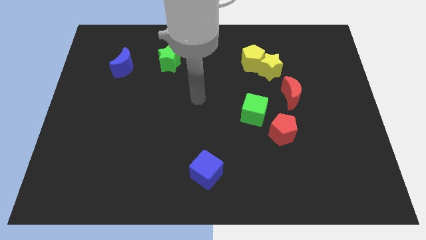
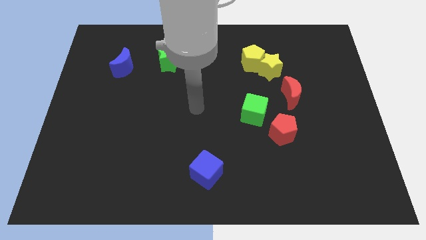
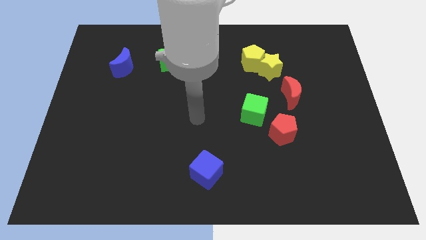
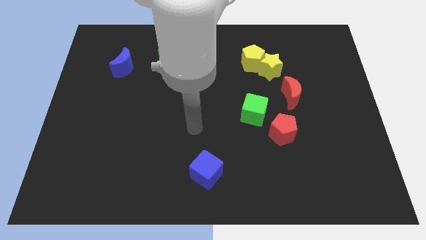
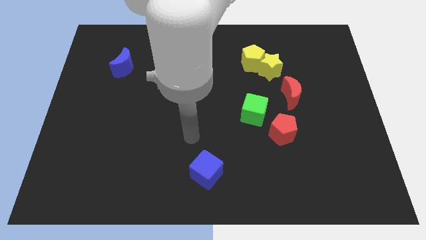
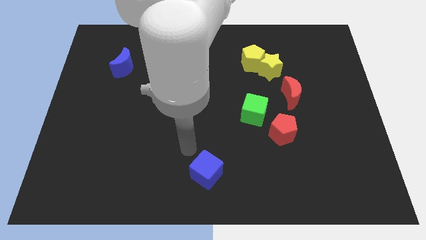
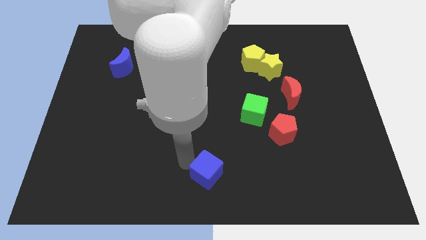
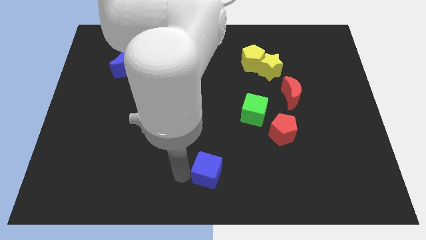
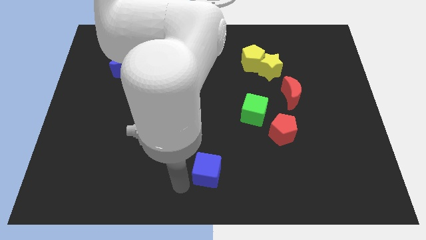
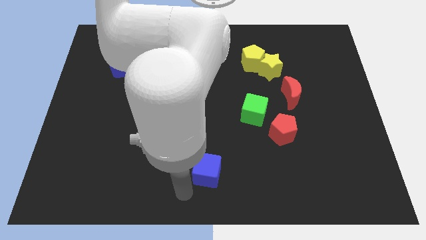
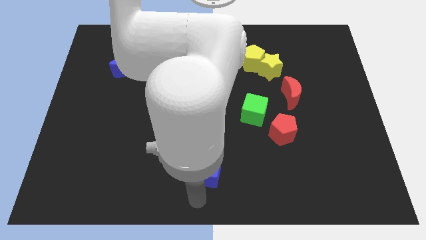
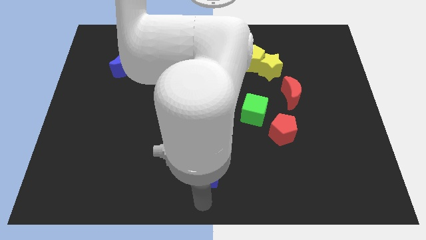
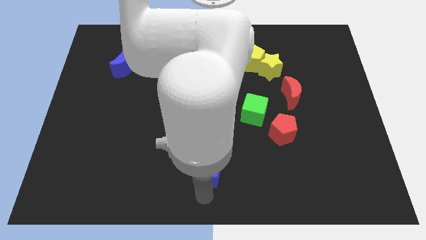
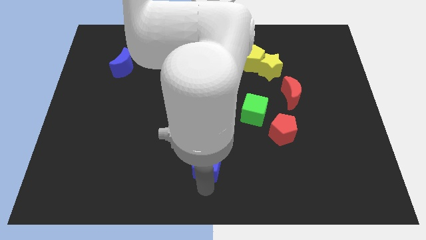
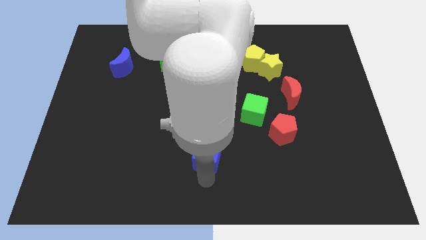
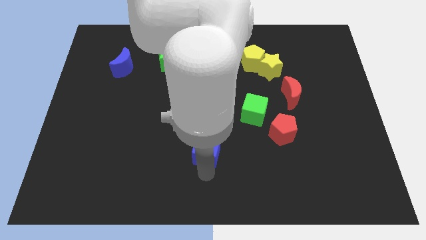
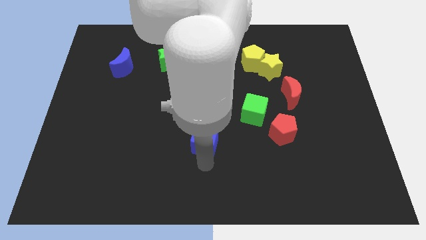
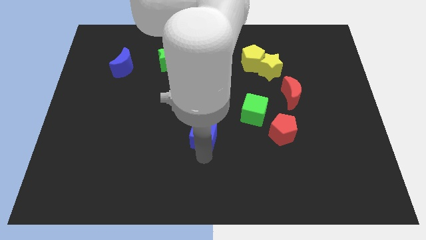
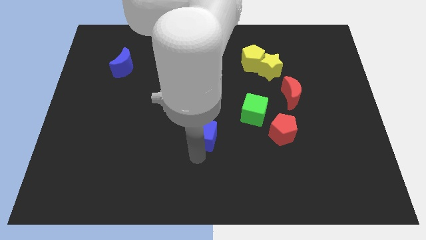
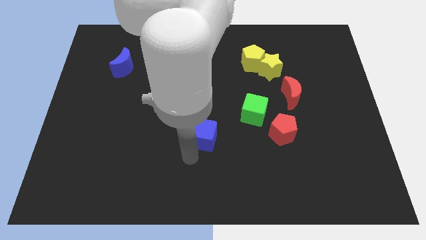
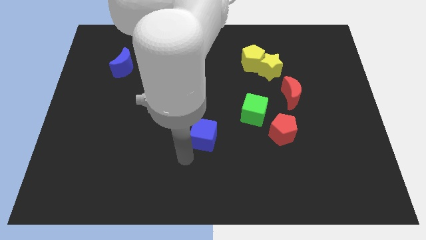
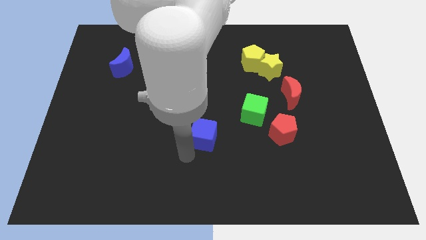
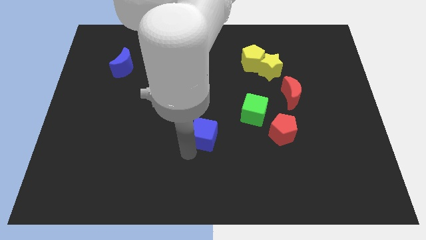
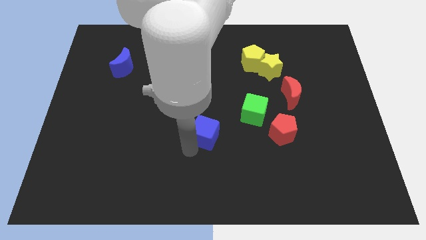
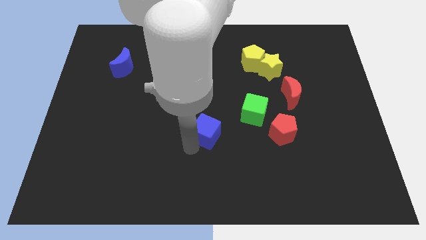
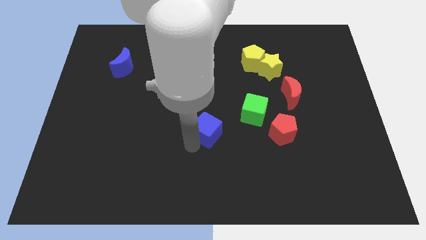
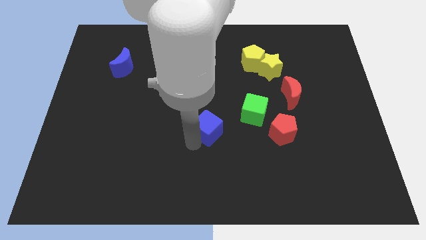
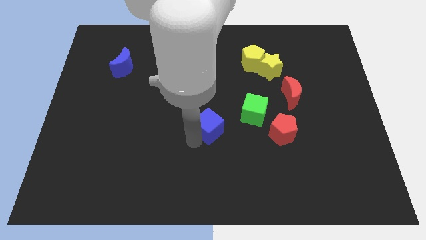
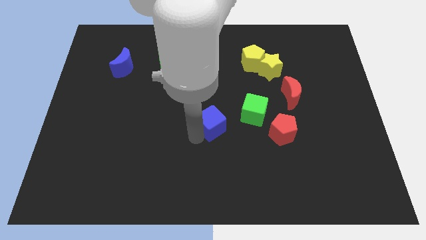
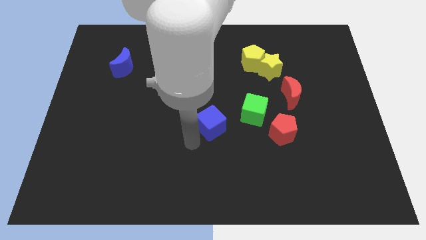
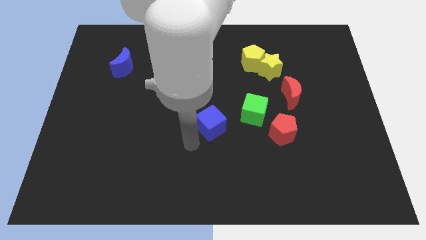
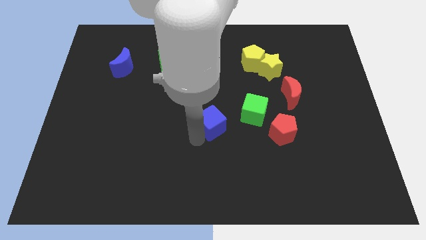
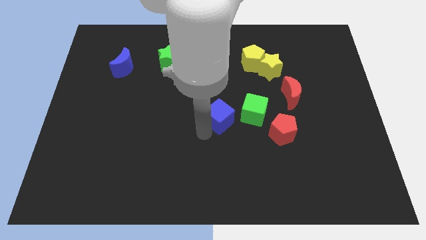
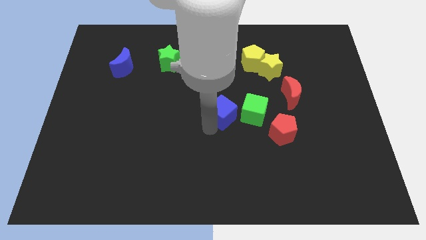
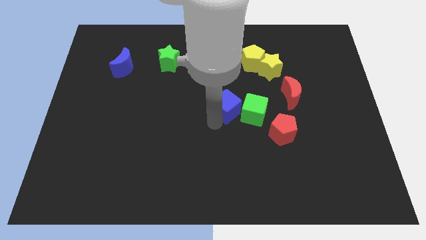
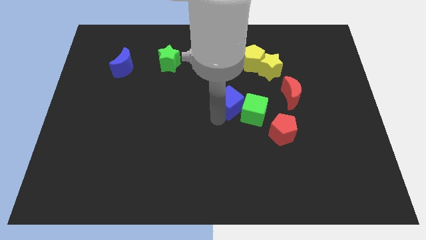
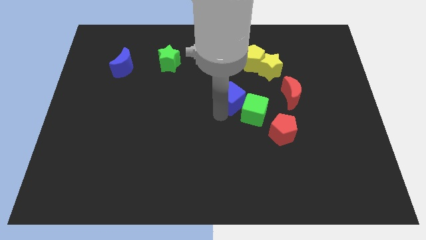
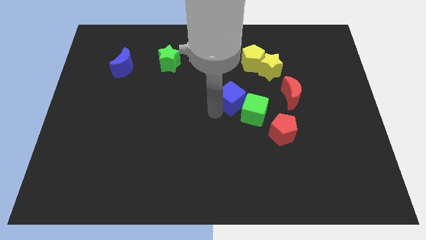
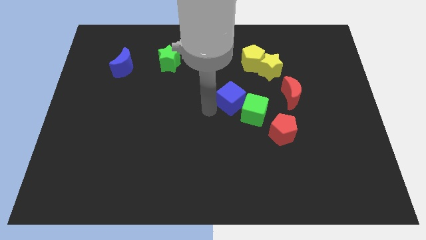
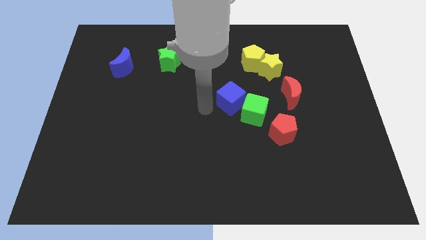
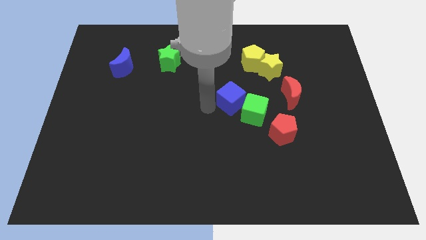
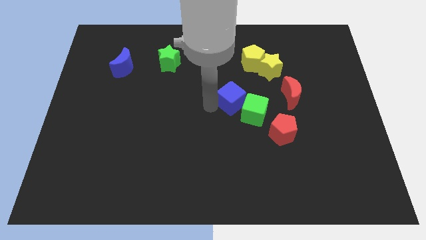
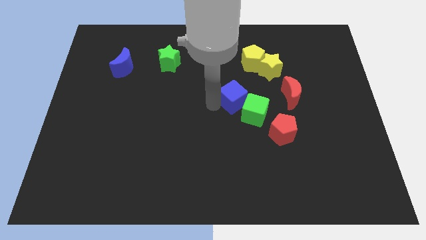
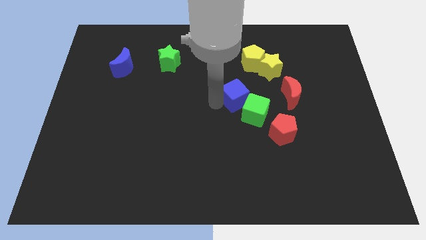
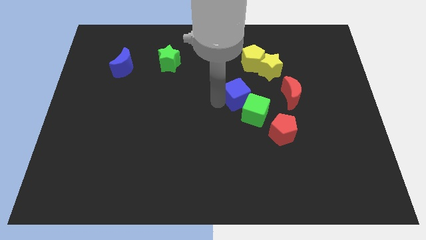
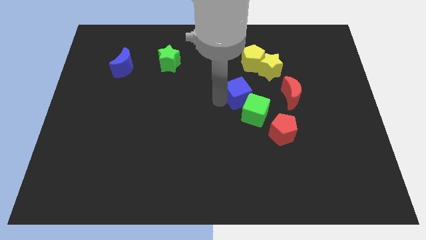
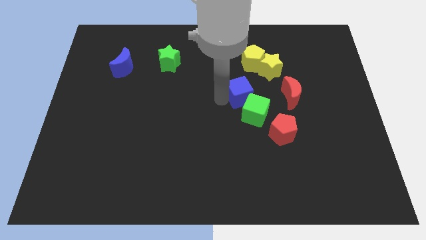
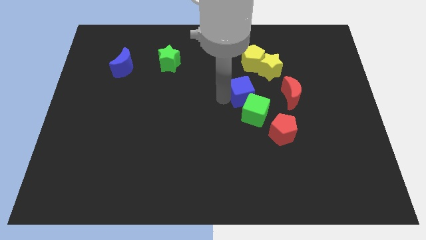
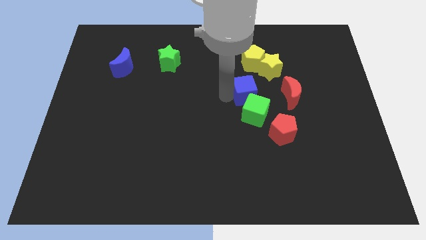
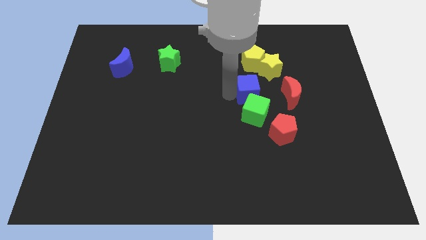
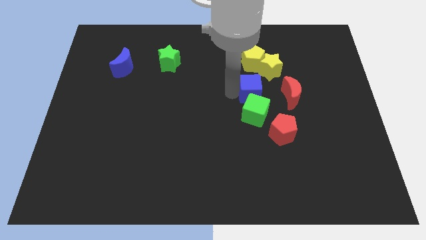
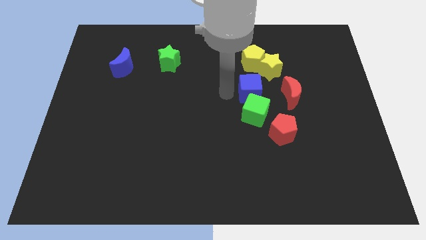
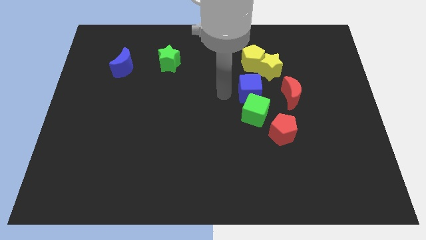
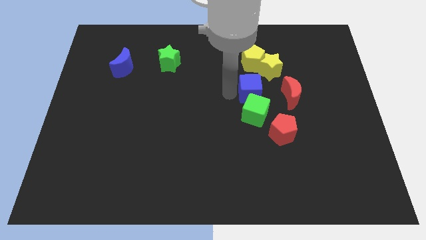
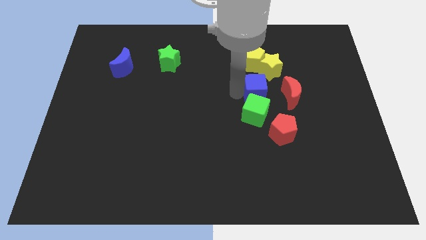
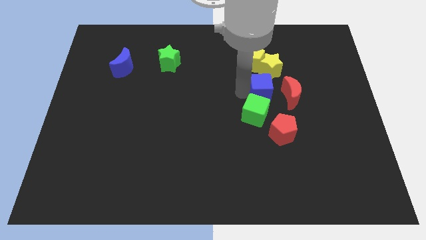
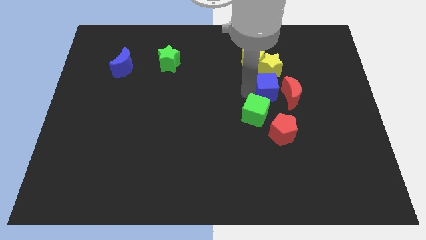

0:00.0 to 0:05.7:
push the blue cube next to the red moon

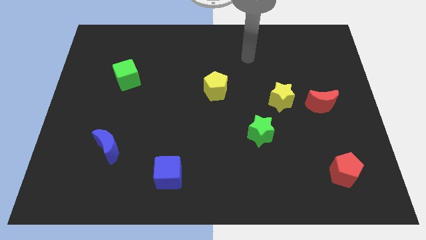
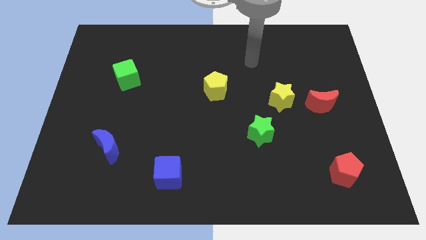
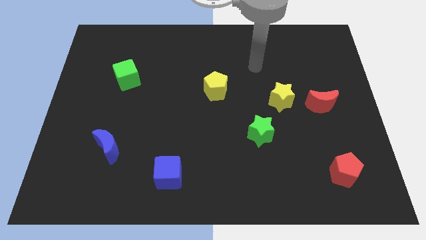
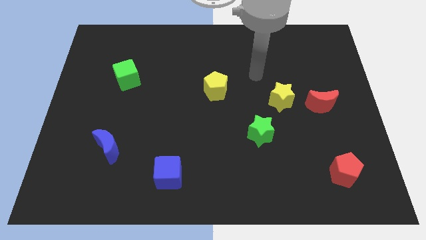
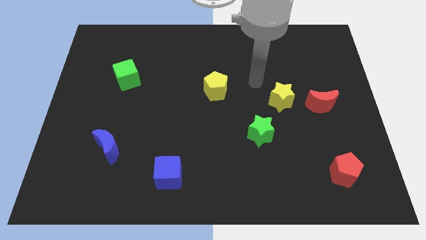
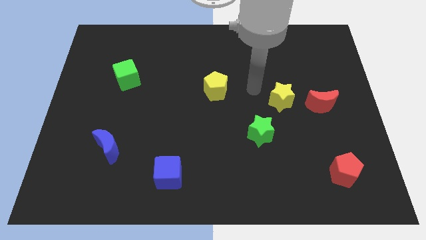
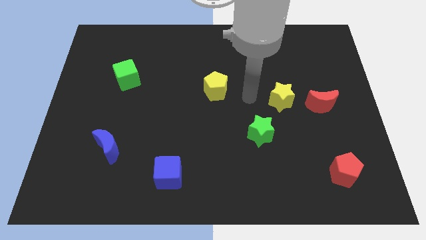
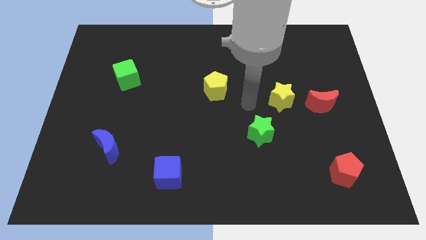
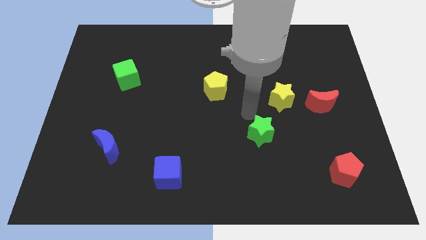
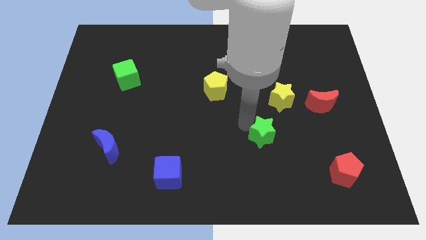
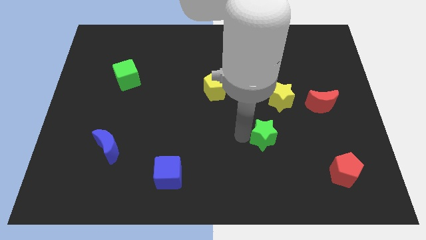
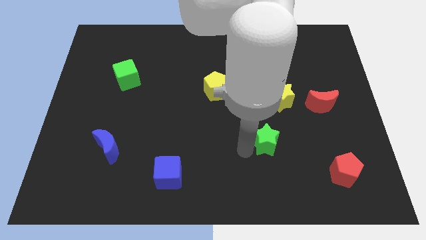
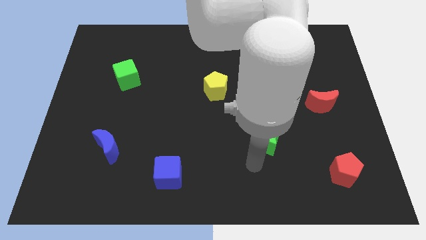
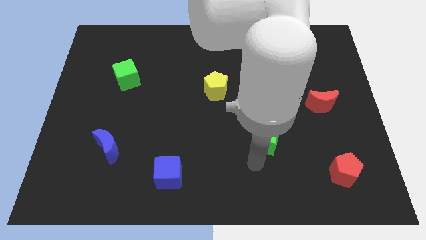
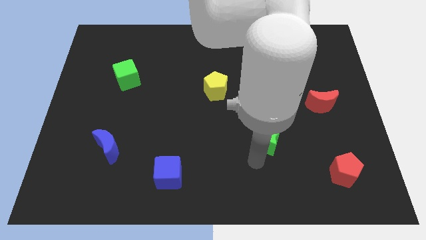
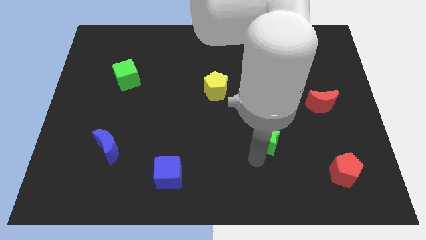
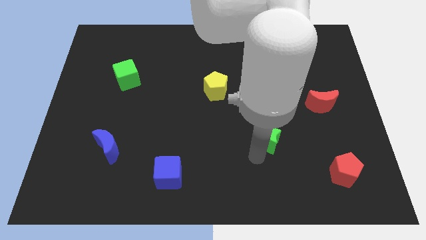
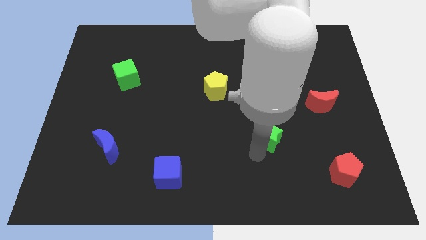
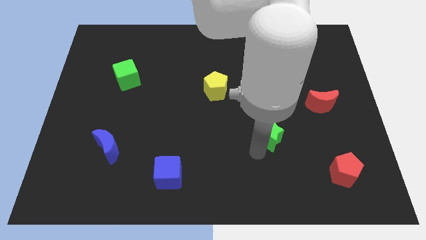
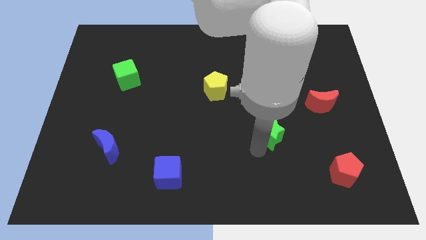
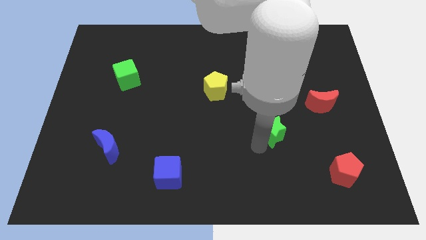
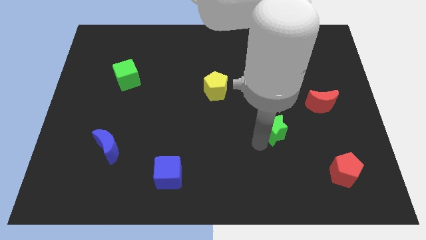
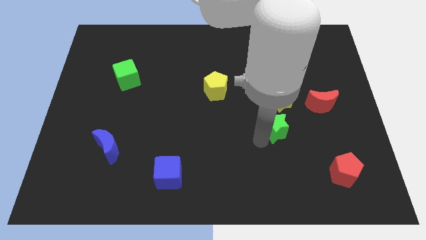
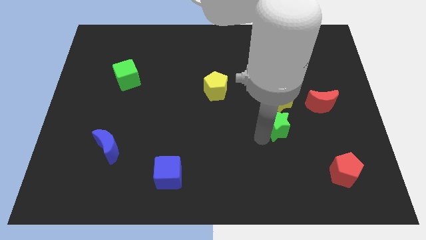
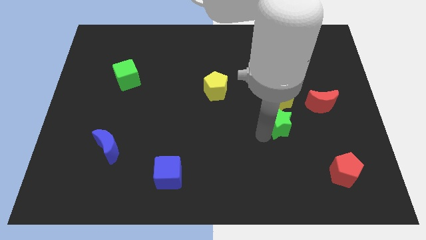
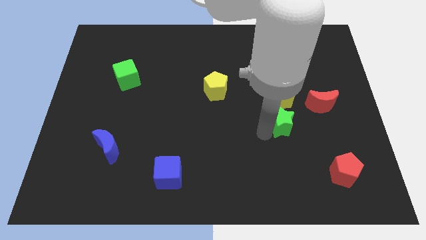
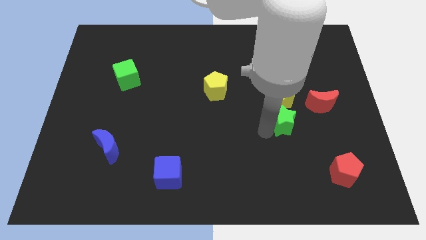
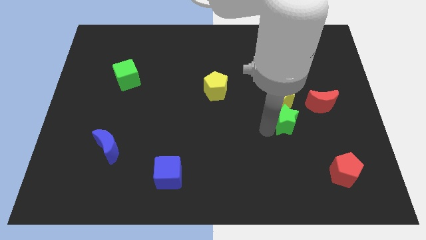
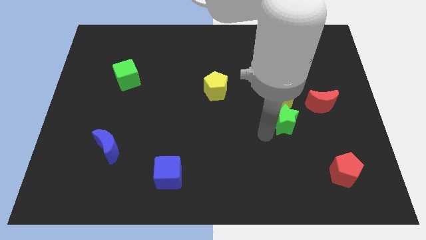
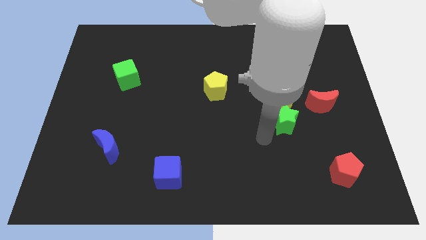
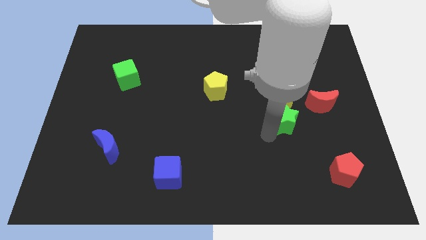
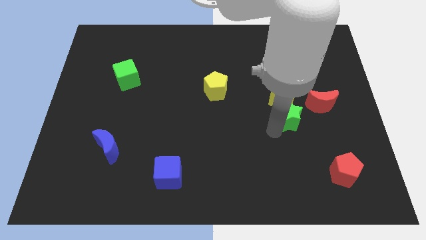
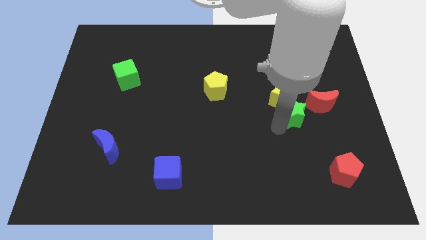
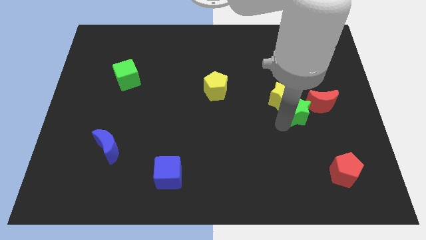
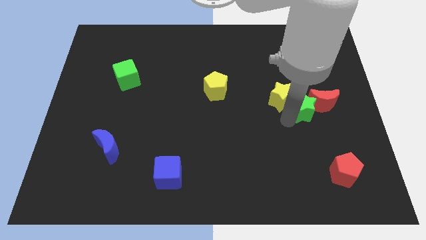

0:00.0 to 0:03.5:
put the green star towards the red moon
